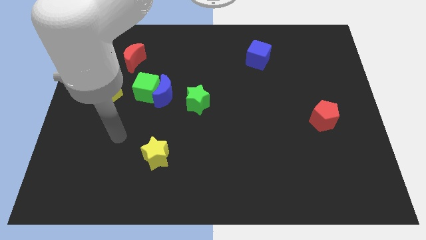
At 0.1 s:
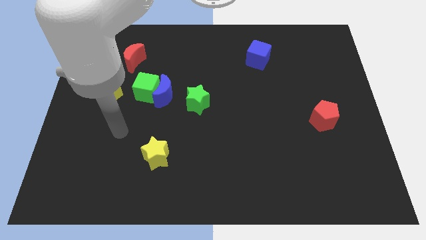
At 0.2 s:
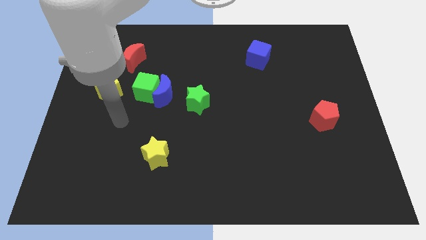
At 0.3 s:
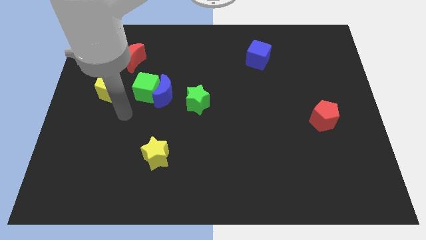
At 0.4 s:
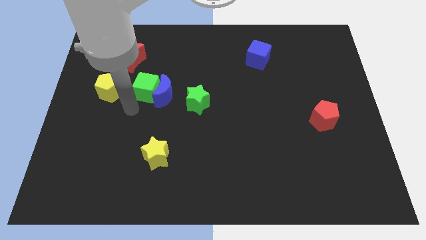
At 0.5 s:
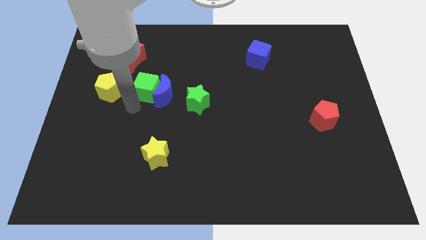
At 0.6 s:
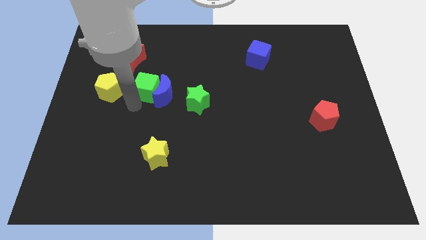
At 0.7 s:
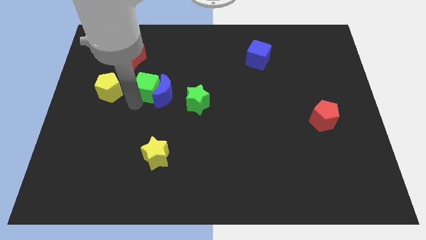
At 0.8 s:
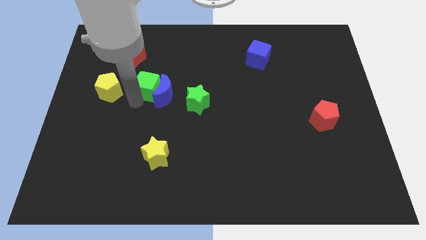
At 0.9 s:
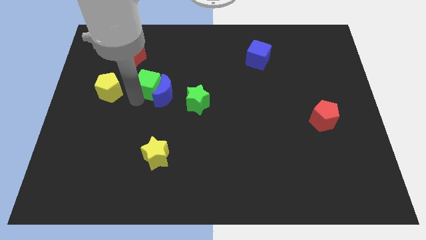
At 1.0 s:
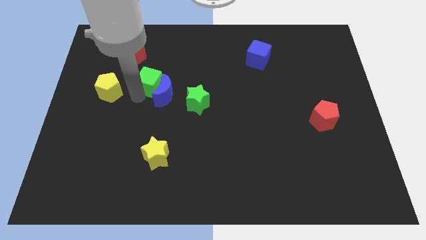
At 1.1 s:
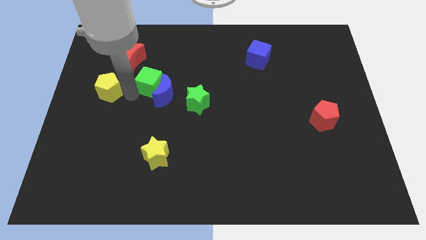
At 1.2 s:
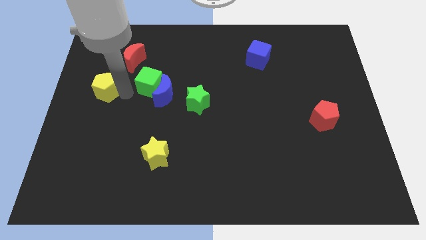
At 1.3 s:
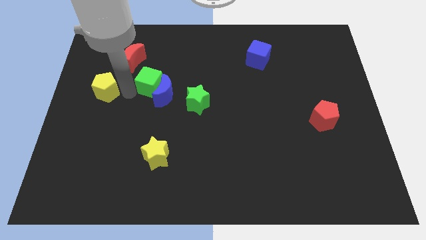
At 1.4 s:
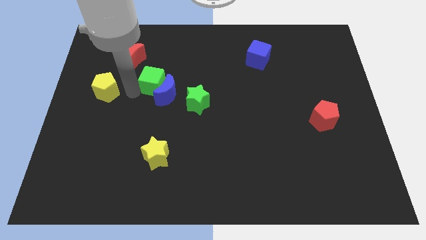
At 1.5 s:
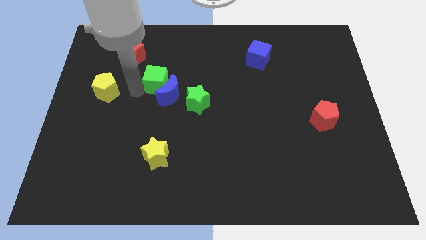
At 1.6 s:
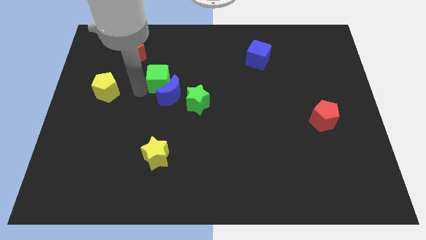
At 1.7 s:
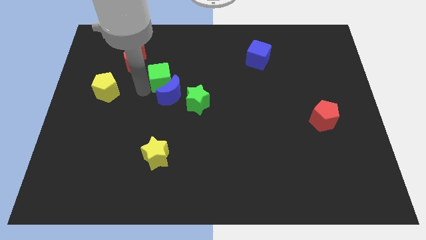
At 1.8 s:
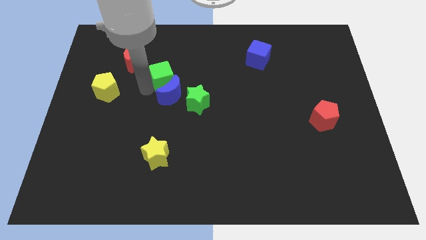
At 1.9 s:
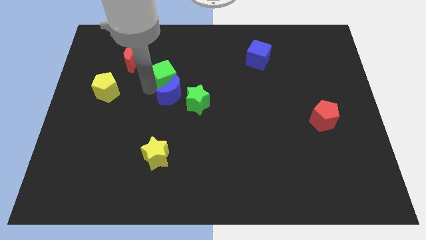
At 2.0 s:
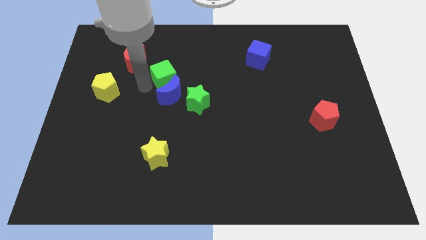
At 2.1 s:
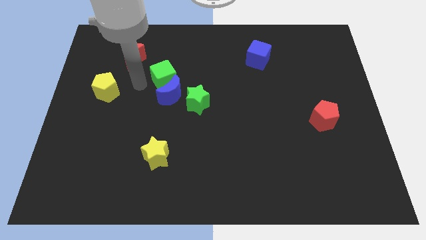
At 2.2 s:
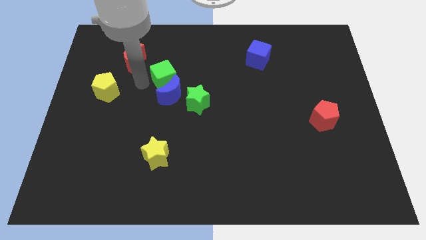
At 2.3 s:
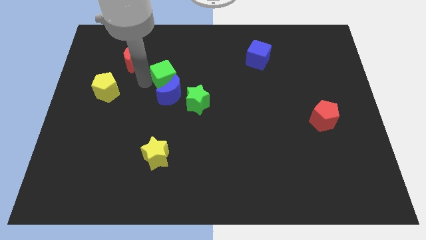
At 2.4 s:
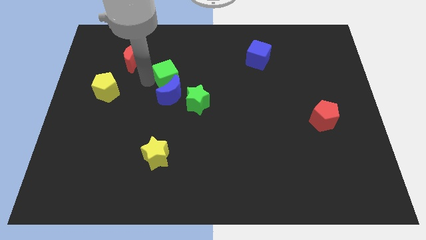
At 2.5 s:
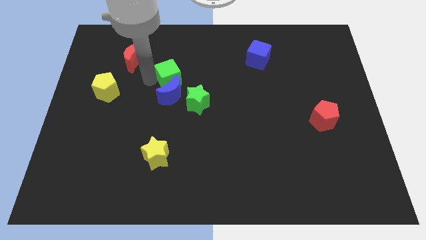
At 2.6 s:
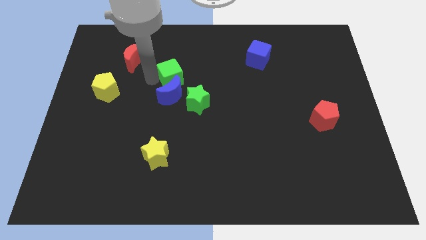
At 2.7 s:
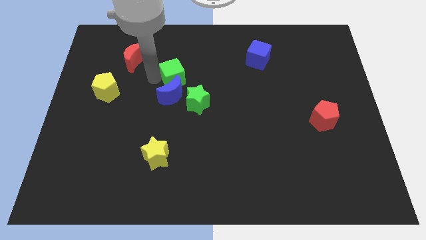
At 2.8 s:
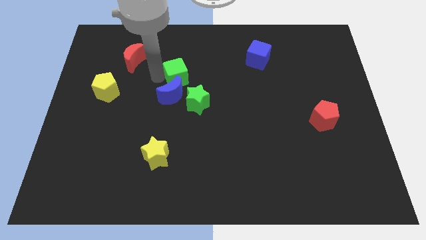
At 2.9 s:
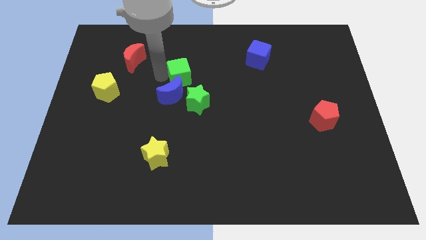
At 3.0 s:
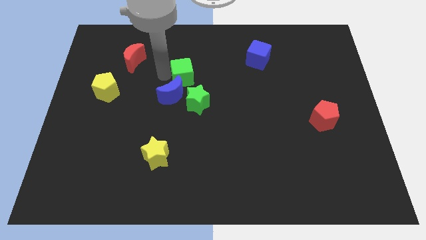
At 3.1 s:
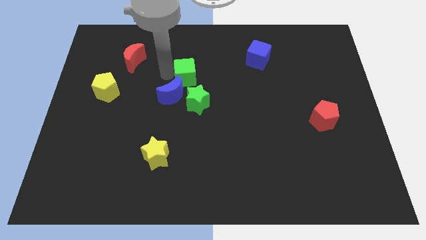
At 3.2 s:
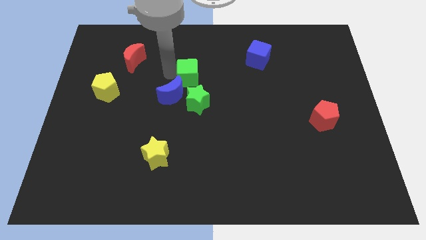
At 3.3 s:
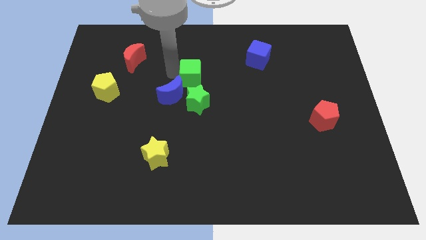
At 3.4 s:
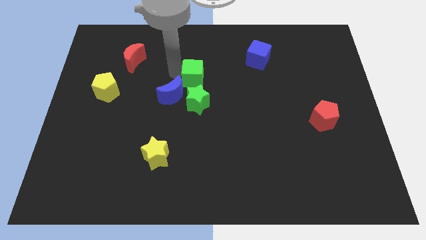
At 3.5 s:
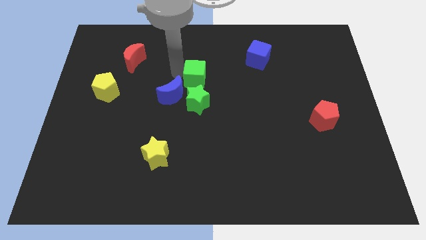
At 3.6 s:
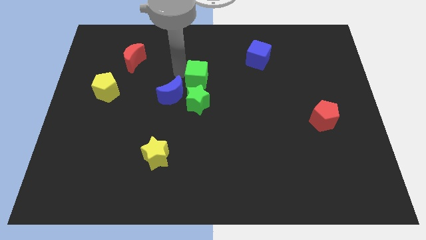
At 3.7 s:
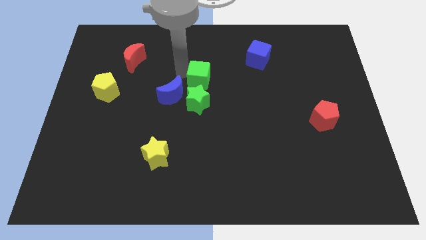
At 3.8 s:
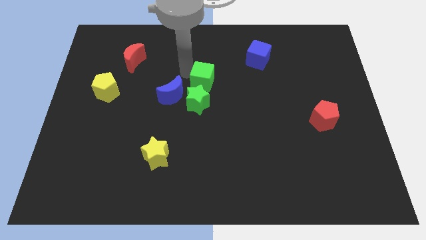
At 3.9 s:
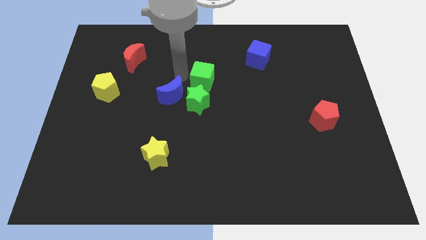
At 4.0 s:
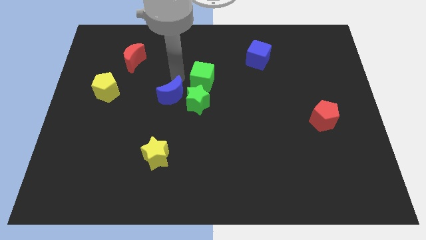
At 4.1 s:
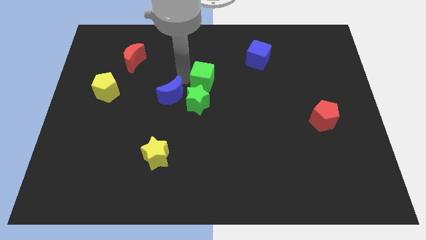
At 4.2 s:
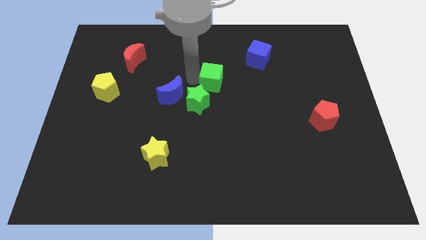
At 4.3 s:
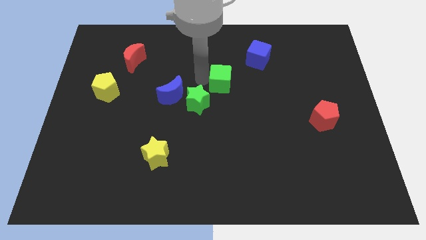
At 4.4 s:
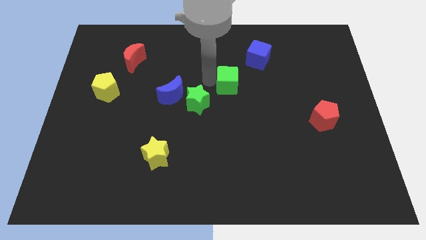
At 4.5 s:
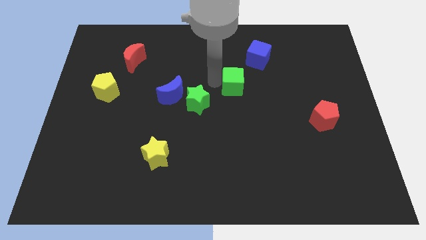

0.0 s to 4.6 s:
slide the green cube right

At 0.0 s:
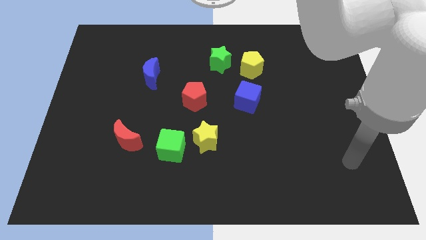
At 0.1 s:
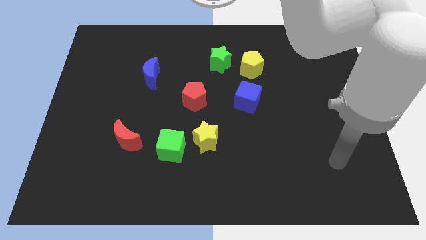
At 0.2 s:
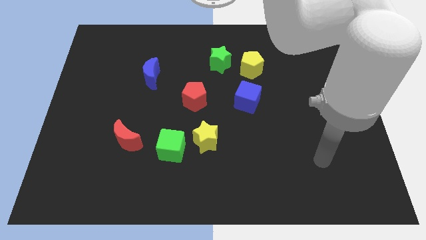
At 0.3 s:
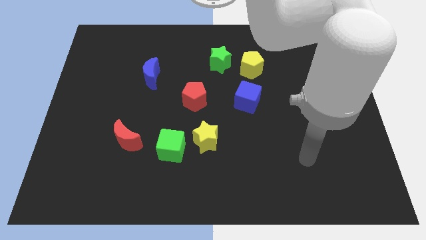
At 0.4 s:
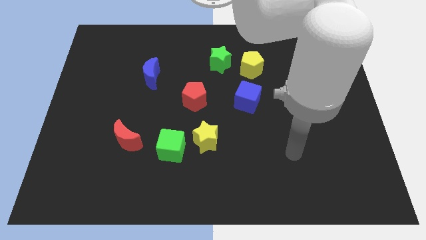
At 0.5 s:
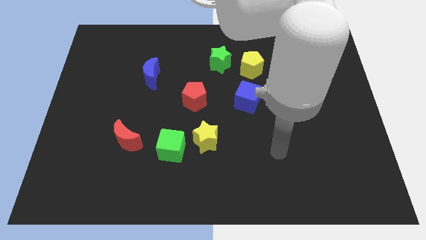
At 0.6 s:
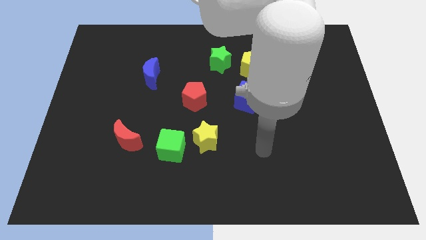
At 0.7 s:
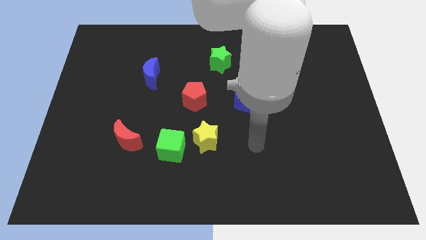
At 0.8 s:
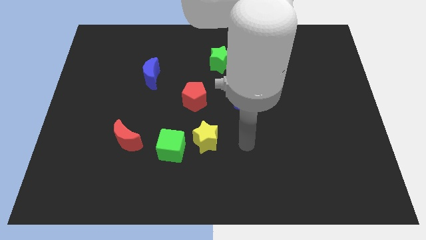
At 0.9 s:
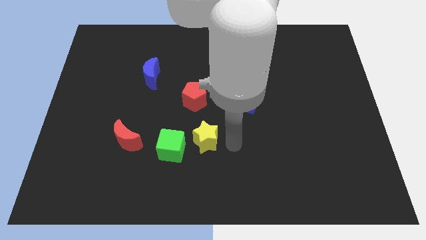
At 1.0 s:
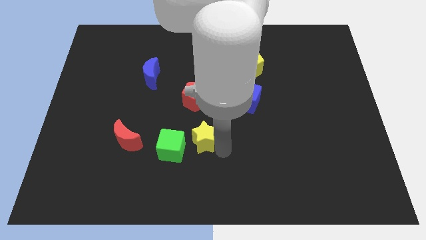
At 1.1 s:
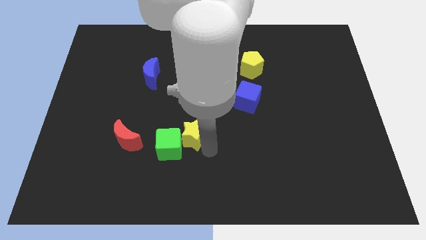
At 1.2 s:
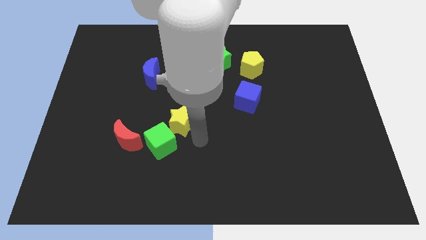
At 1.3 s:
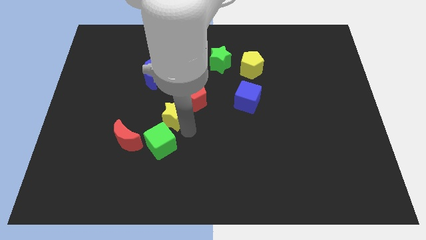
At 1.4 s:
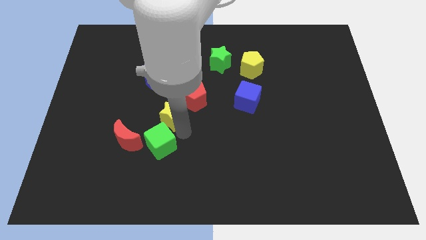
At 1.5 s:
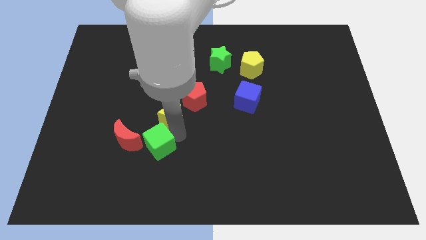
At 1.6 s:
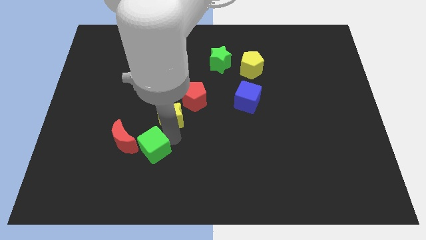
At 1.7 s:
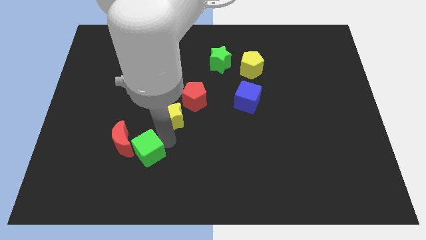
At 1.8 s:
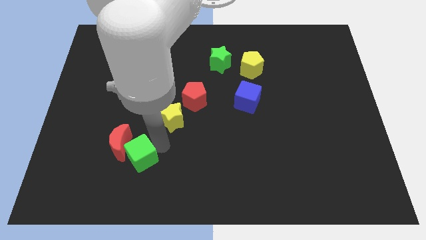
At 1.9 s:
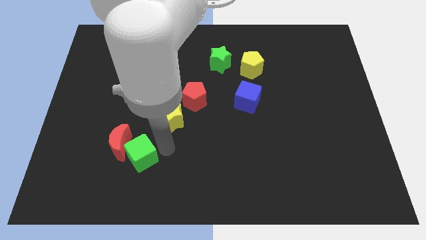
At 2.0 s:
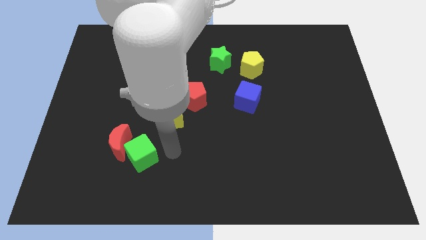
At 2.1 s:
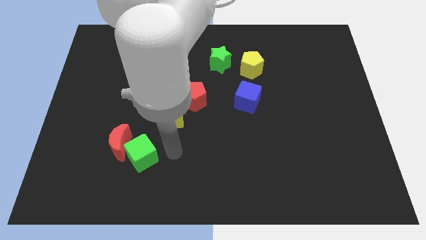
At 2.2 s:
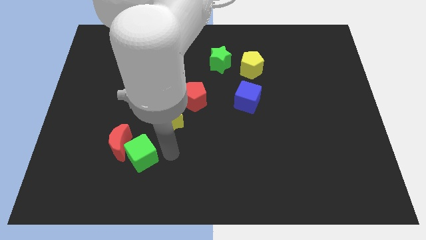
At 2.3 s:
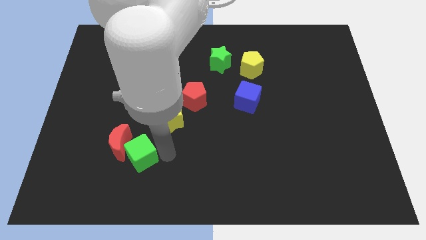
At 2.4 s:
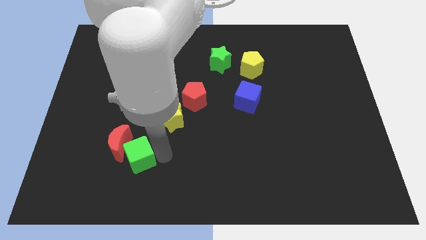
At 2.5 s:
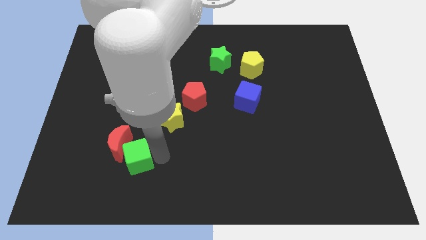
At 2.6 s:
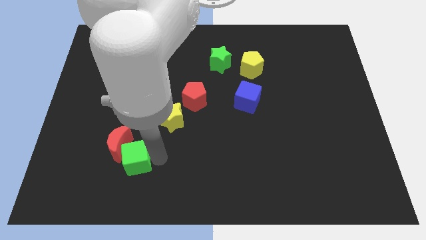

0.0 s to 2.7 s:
slide the green cube a little bit to the left

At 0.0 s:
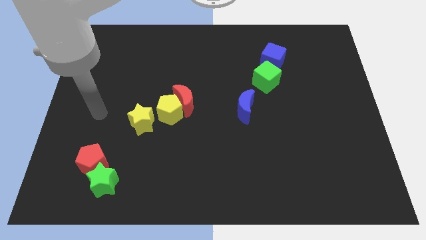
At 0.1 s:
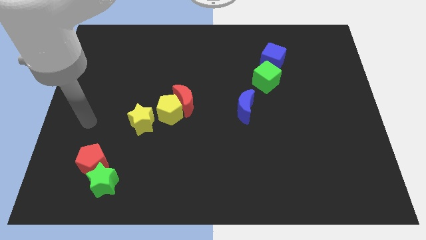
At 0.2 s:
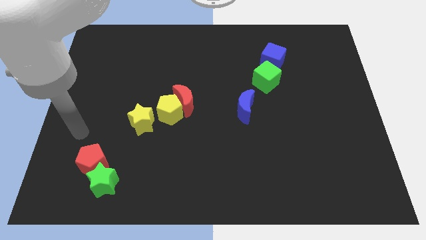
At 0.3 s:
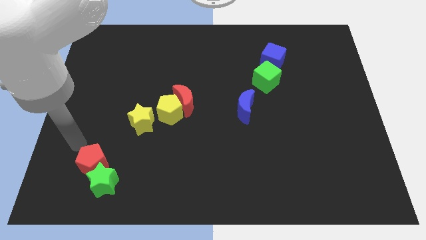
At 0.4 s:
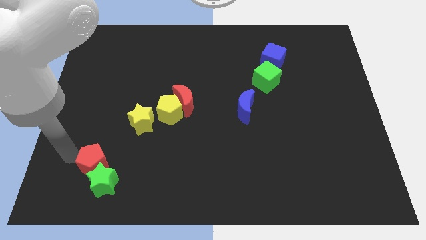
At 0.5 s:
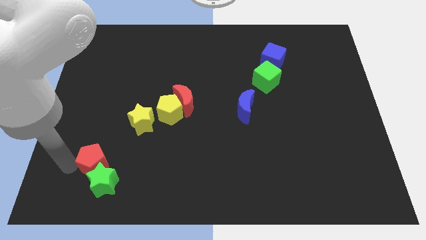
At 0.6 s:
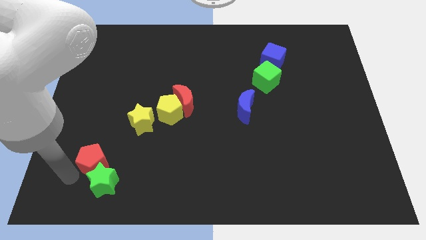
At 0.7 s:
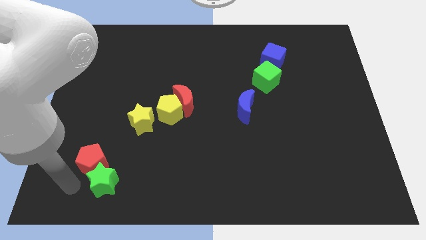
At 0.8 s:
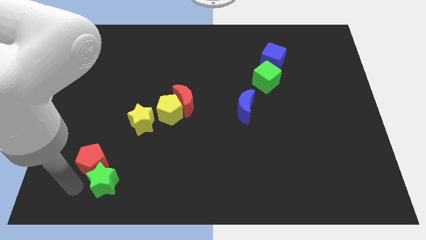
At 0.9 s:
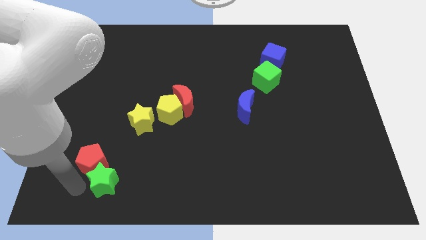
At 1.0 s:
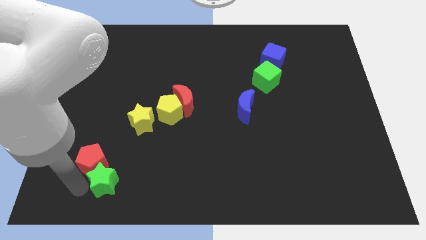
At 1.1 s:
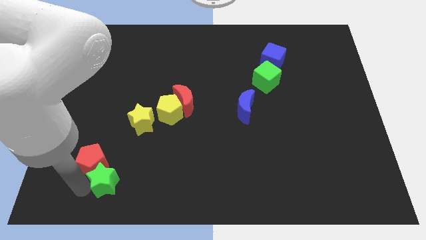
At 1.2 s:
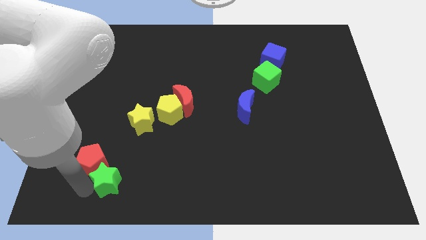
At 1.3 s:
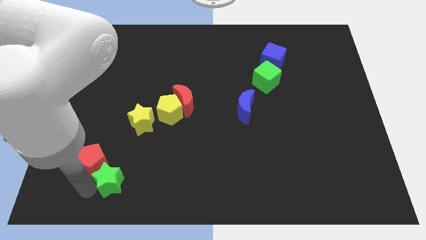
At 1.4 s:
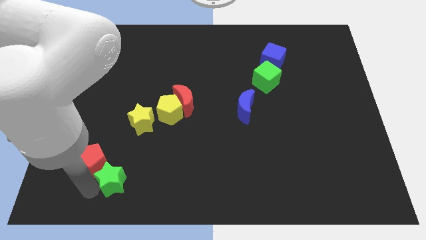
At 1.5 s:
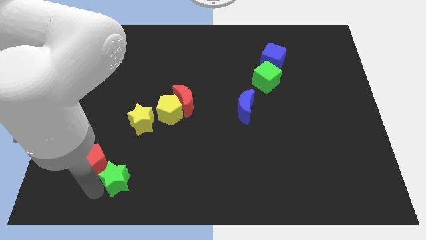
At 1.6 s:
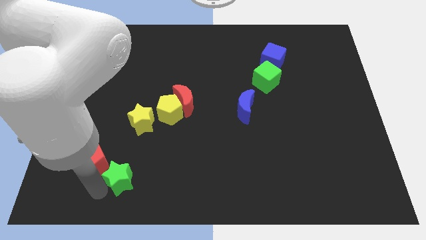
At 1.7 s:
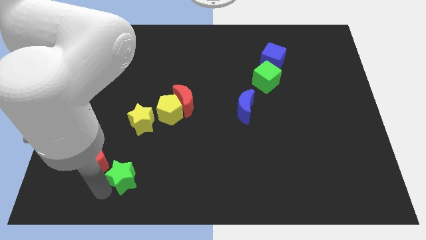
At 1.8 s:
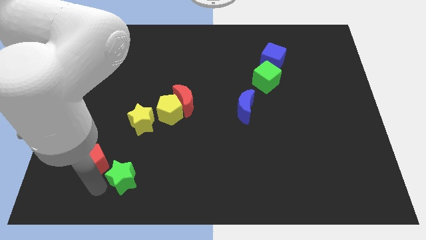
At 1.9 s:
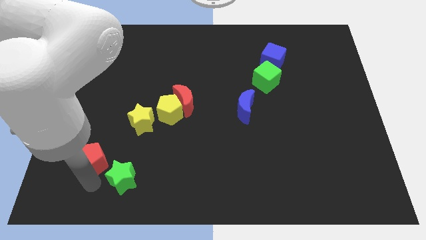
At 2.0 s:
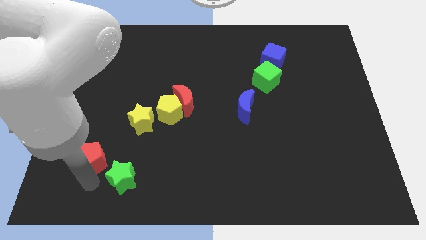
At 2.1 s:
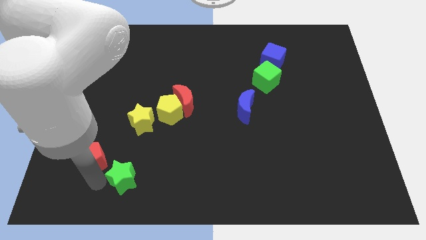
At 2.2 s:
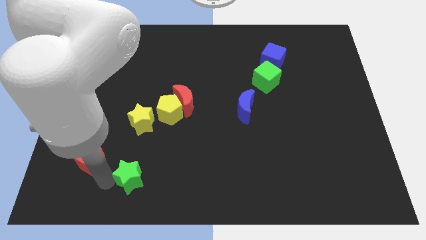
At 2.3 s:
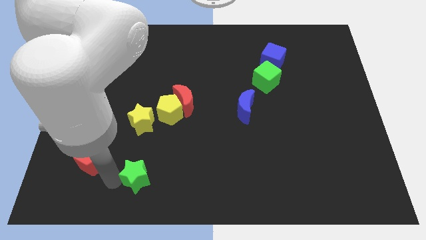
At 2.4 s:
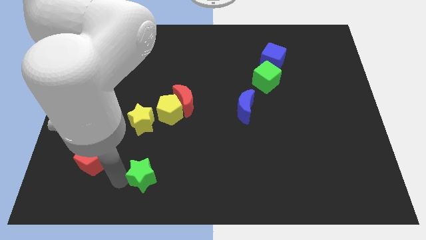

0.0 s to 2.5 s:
slightly move the green star to the right
